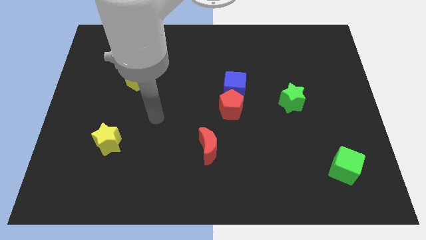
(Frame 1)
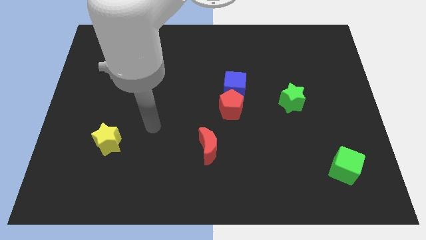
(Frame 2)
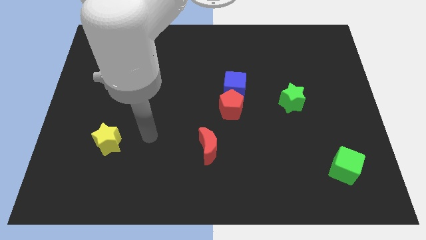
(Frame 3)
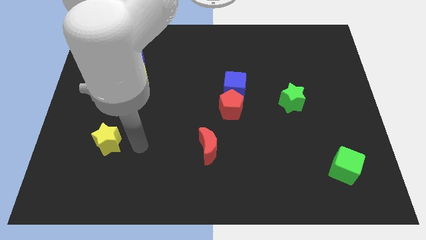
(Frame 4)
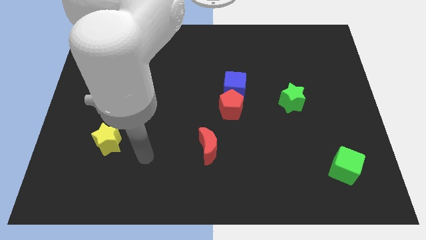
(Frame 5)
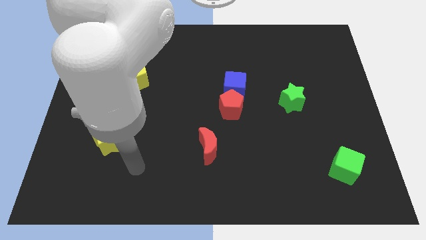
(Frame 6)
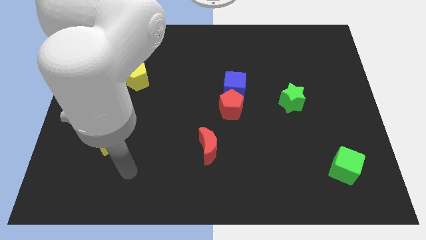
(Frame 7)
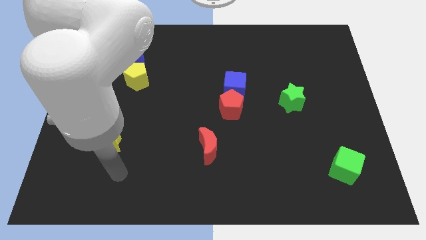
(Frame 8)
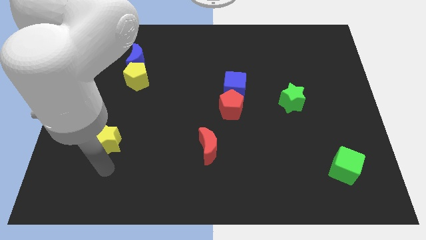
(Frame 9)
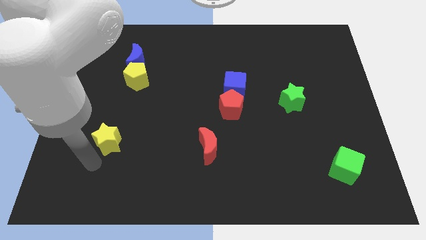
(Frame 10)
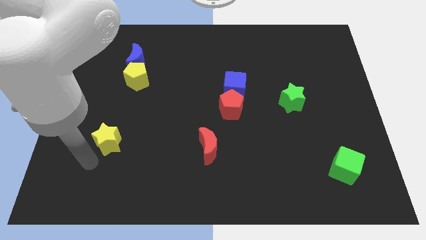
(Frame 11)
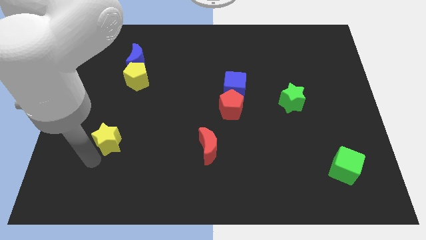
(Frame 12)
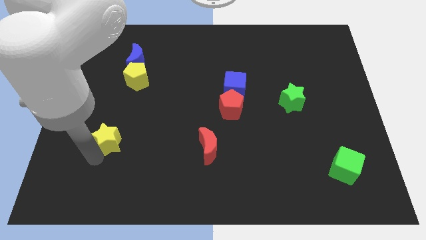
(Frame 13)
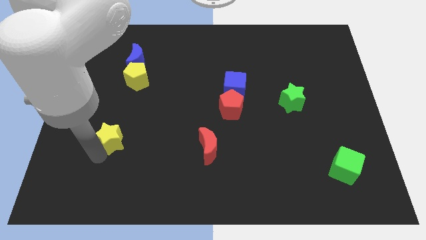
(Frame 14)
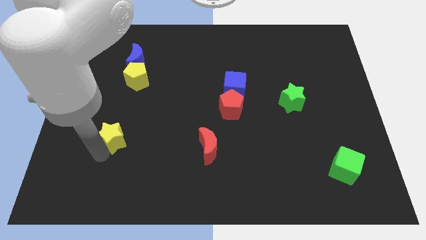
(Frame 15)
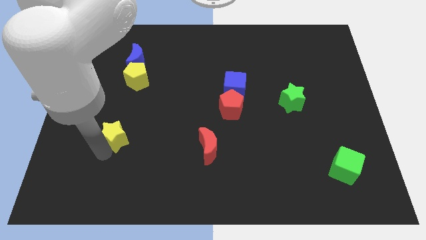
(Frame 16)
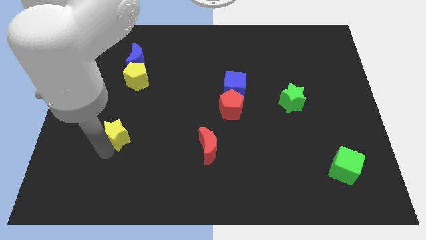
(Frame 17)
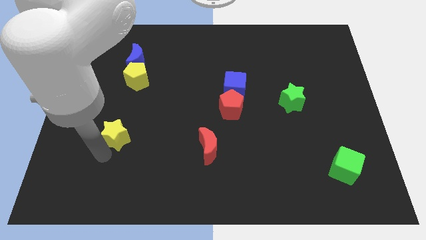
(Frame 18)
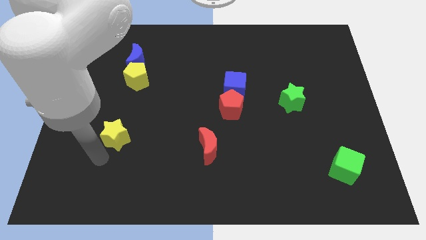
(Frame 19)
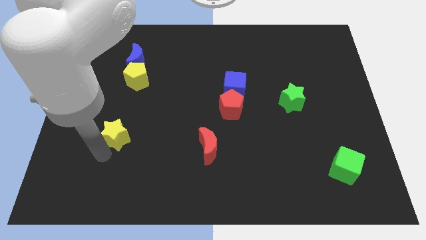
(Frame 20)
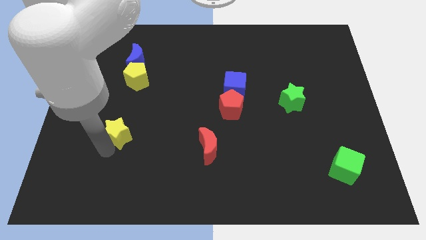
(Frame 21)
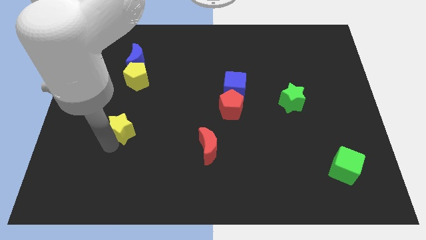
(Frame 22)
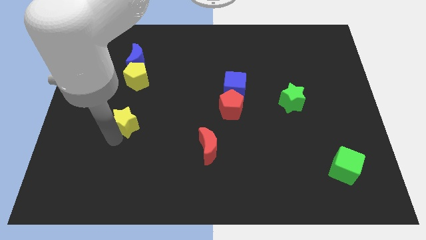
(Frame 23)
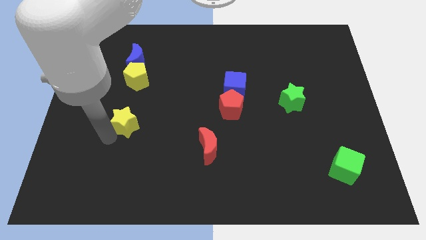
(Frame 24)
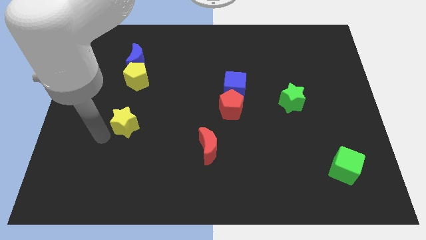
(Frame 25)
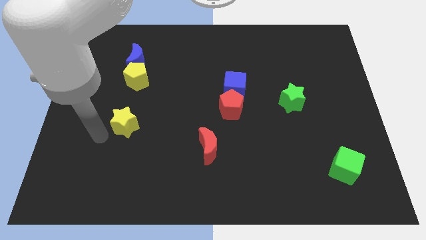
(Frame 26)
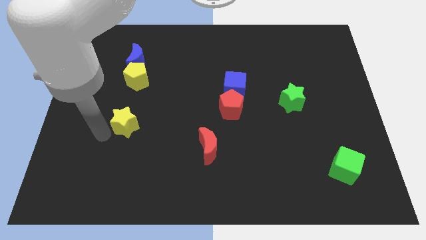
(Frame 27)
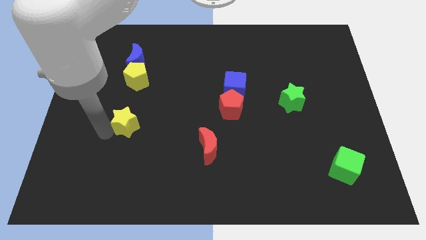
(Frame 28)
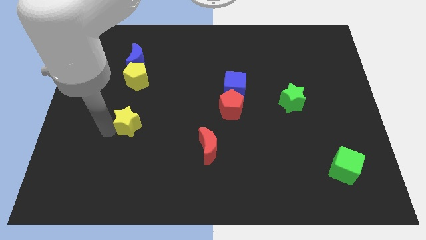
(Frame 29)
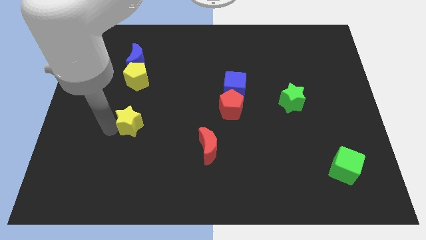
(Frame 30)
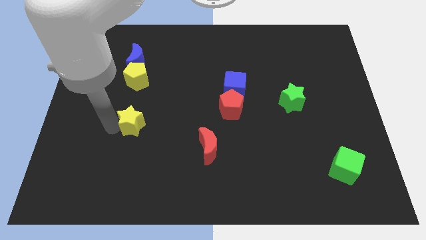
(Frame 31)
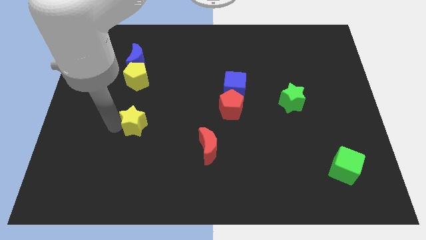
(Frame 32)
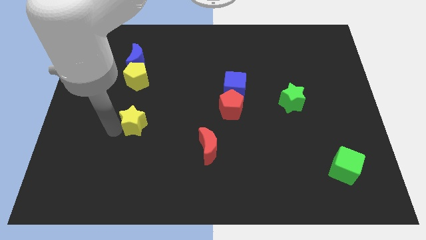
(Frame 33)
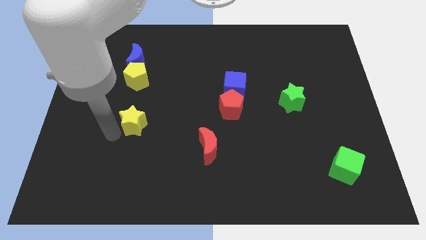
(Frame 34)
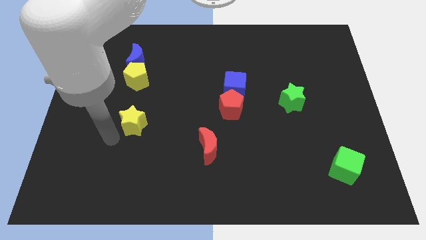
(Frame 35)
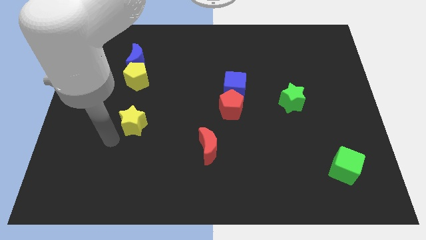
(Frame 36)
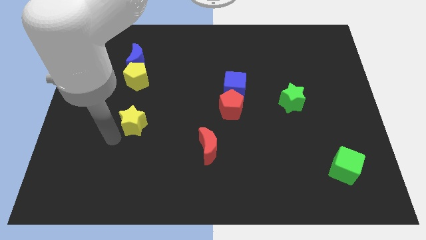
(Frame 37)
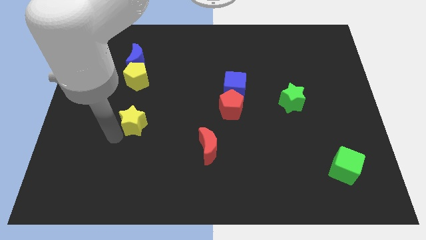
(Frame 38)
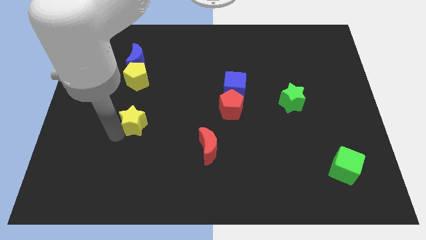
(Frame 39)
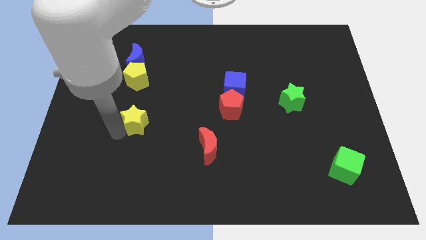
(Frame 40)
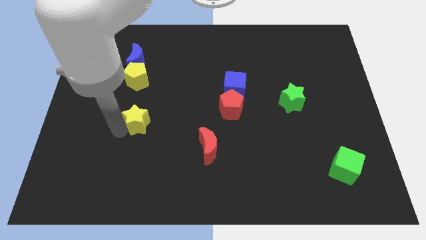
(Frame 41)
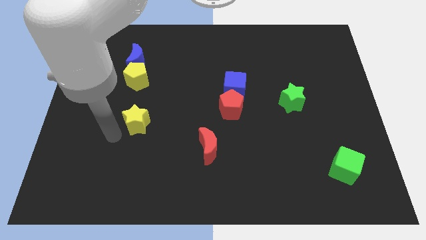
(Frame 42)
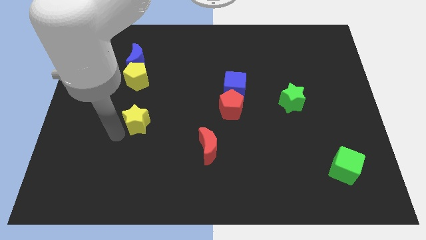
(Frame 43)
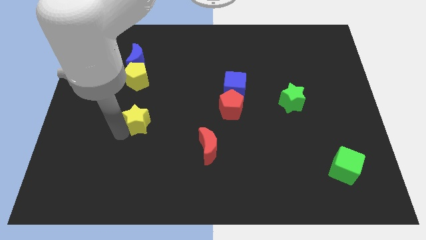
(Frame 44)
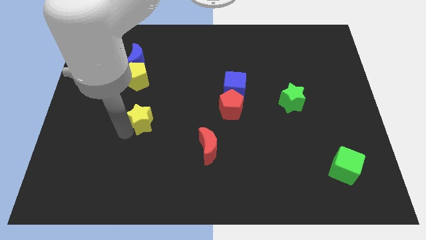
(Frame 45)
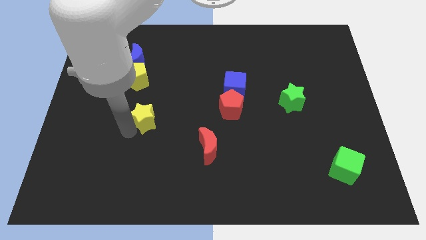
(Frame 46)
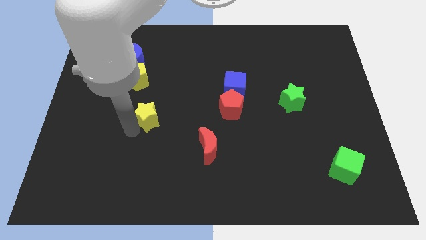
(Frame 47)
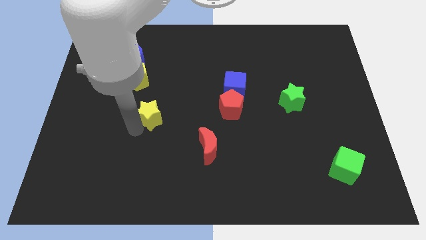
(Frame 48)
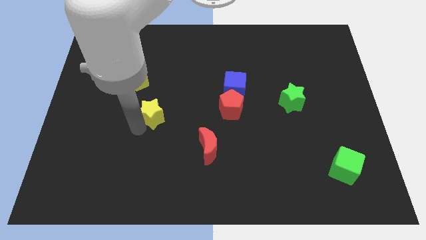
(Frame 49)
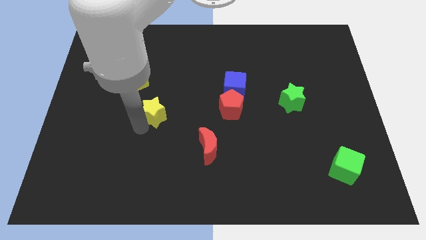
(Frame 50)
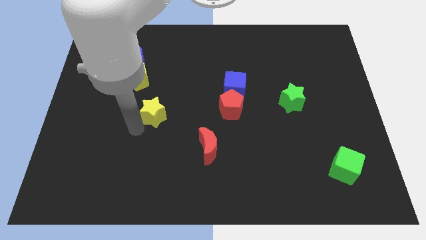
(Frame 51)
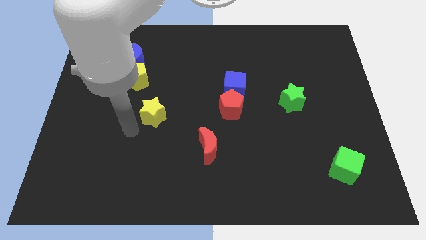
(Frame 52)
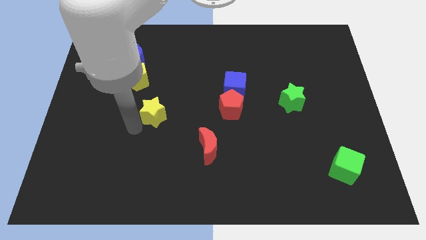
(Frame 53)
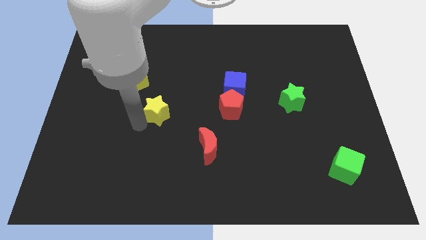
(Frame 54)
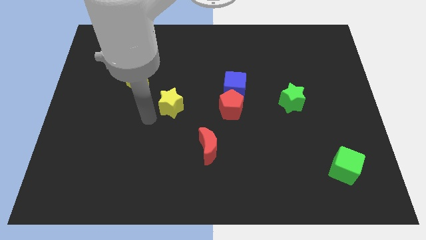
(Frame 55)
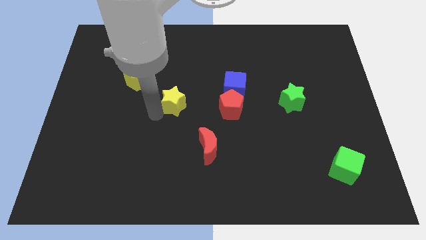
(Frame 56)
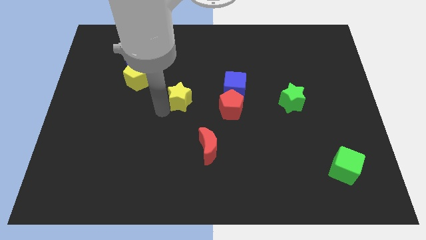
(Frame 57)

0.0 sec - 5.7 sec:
push the yellow star left of the blue cube
